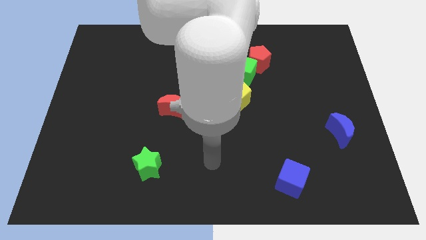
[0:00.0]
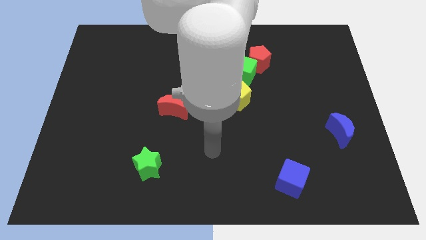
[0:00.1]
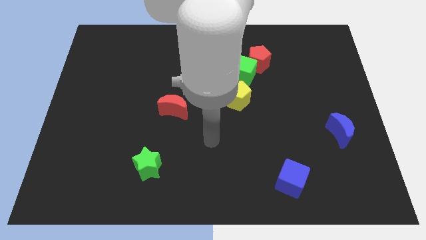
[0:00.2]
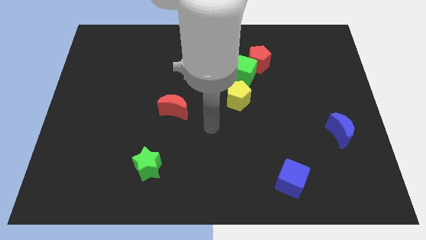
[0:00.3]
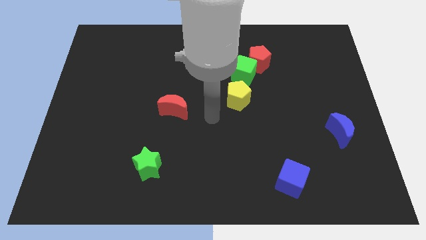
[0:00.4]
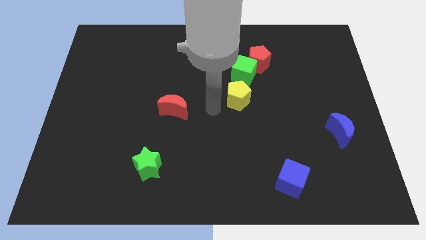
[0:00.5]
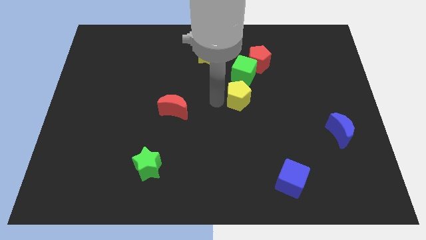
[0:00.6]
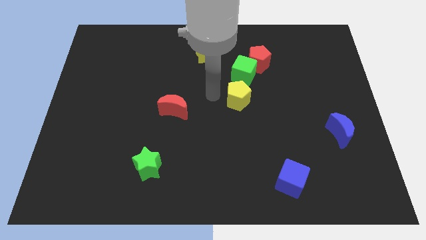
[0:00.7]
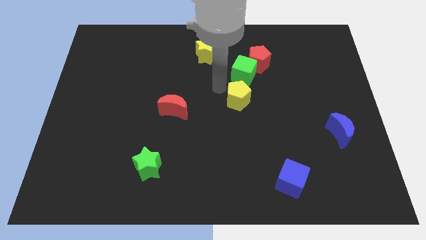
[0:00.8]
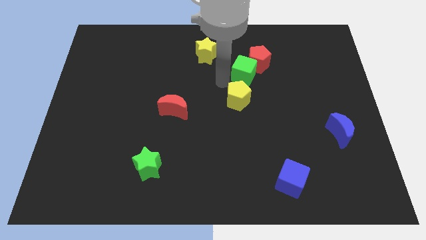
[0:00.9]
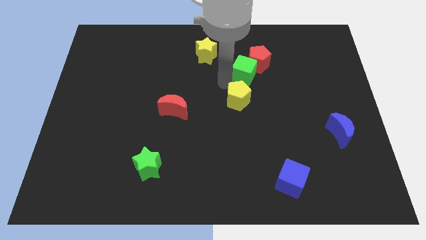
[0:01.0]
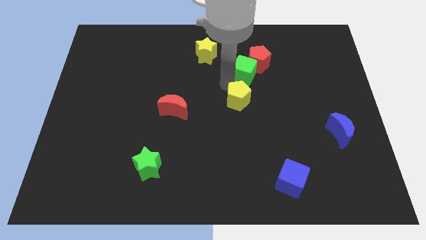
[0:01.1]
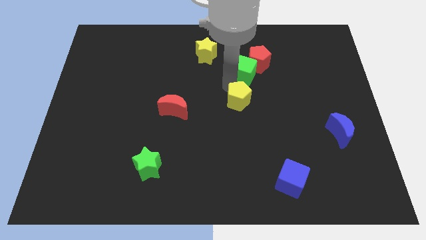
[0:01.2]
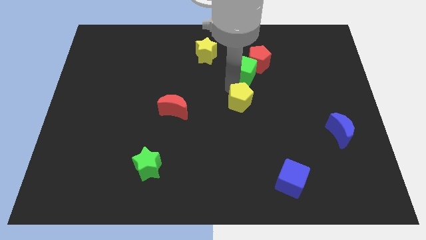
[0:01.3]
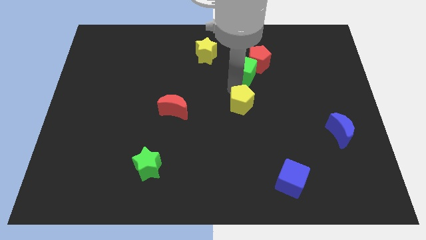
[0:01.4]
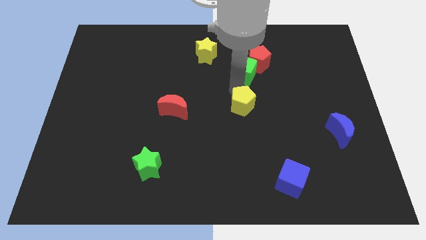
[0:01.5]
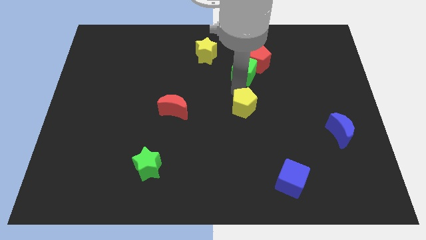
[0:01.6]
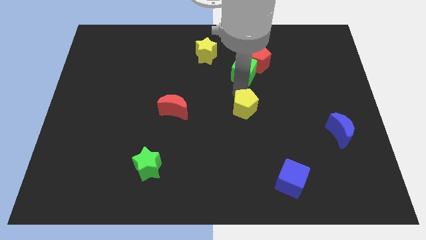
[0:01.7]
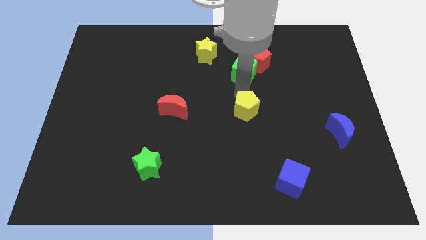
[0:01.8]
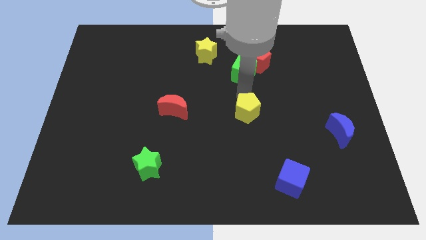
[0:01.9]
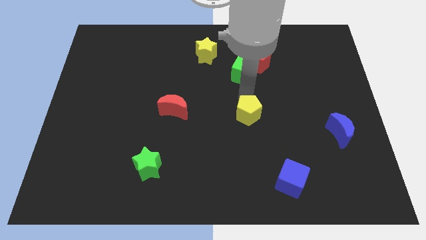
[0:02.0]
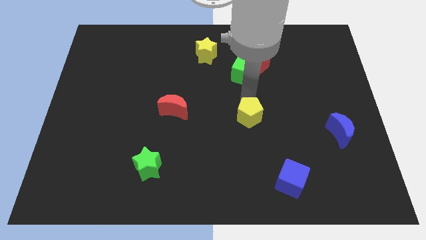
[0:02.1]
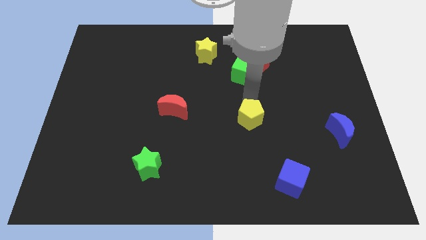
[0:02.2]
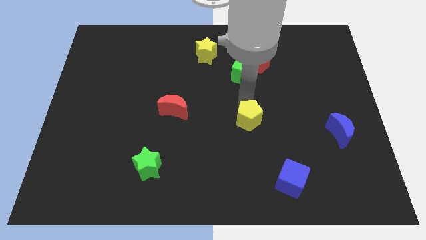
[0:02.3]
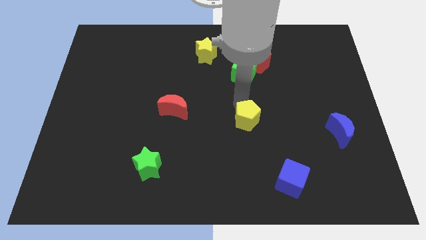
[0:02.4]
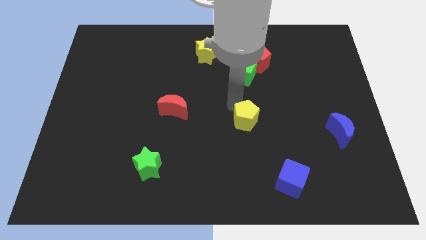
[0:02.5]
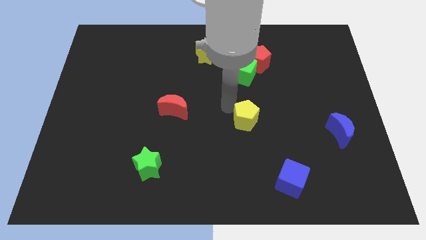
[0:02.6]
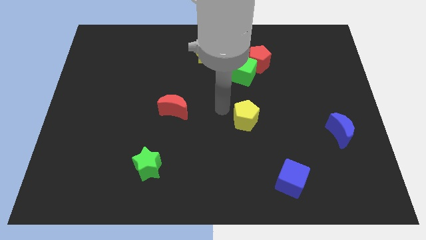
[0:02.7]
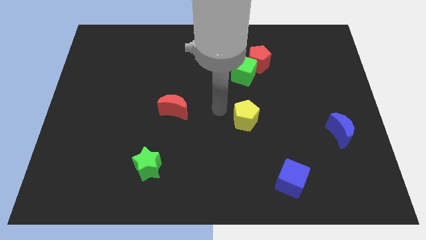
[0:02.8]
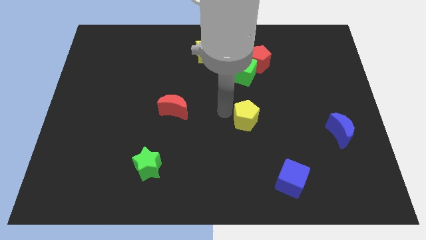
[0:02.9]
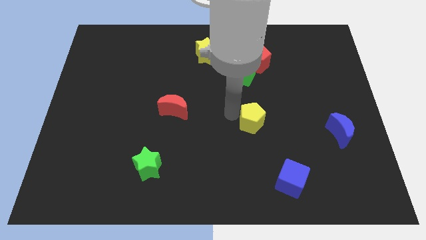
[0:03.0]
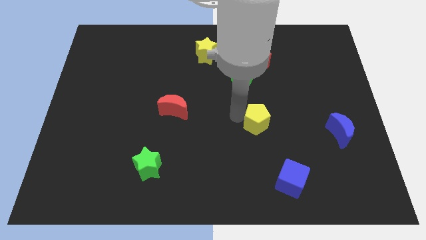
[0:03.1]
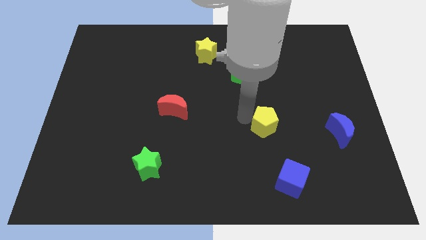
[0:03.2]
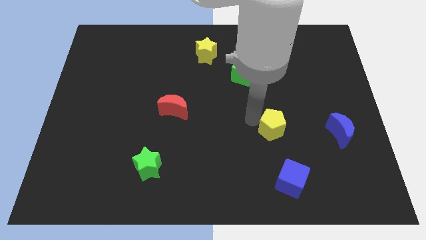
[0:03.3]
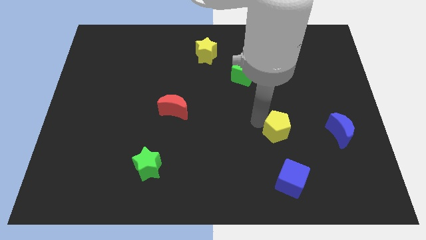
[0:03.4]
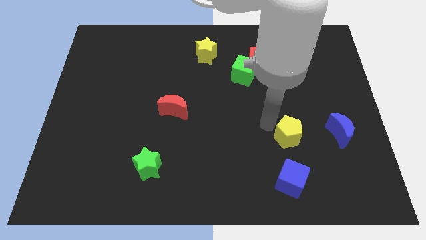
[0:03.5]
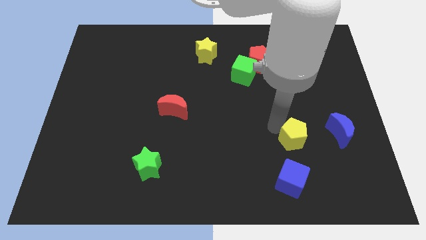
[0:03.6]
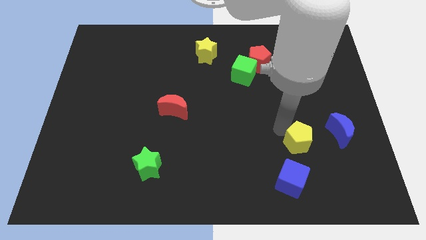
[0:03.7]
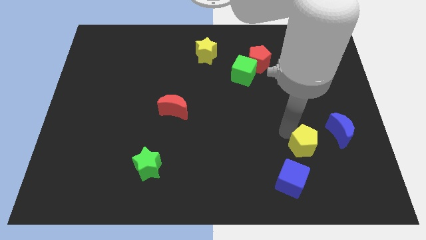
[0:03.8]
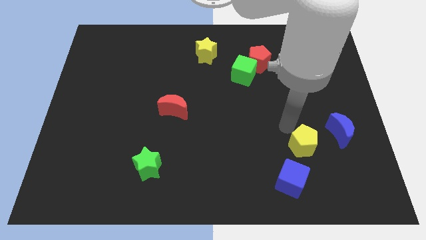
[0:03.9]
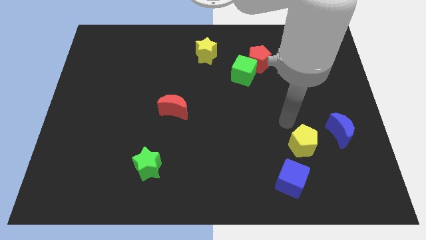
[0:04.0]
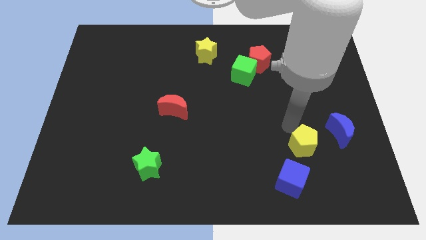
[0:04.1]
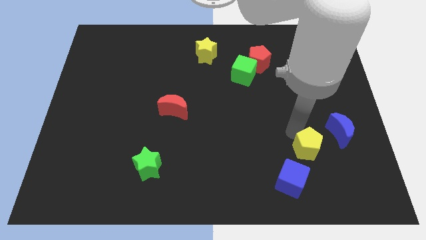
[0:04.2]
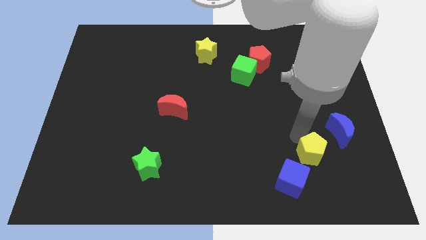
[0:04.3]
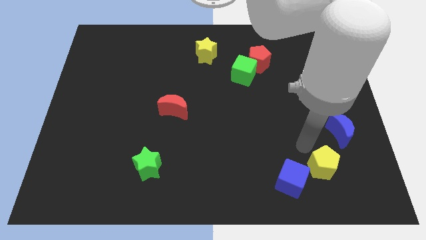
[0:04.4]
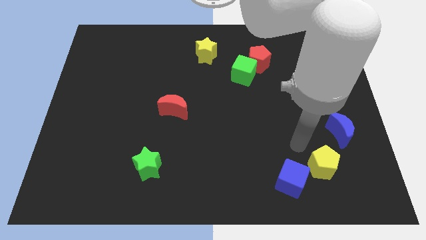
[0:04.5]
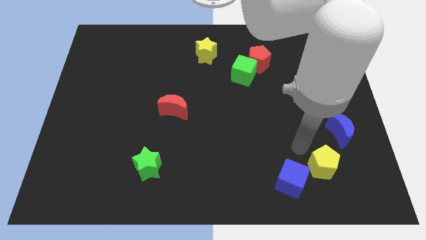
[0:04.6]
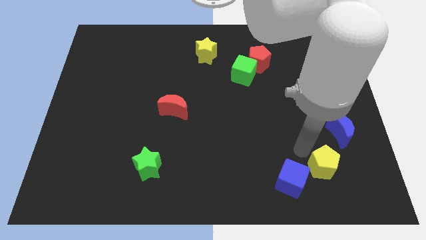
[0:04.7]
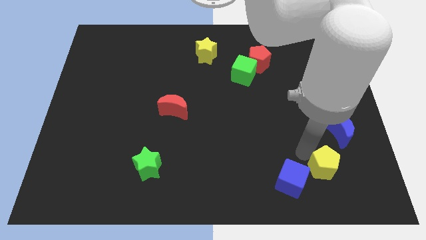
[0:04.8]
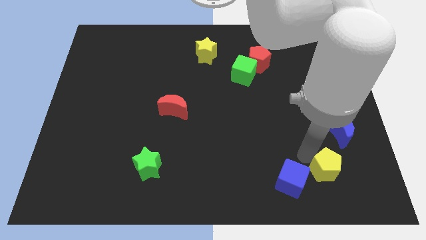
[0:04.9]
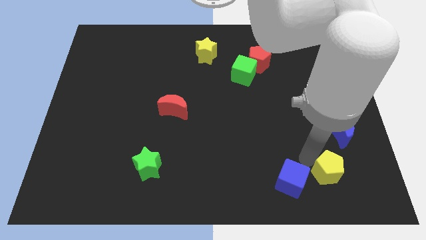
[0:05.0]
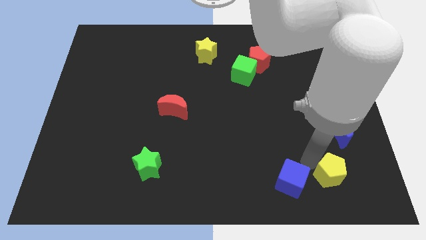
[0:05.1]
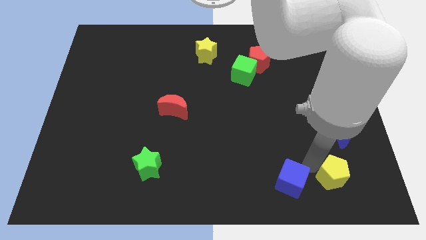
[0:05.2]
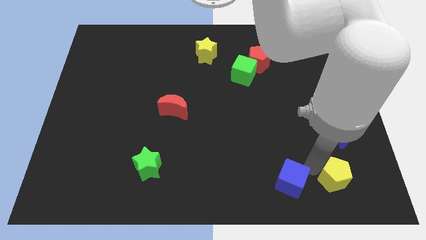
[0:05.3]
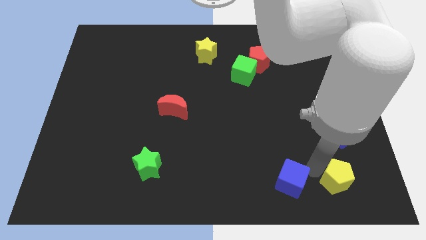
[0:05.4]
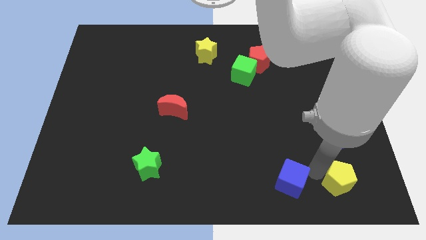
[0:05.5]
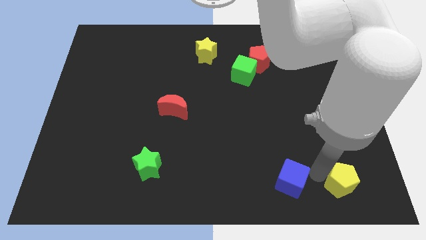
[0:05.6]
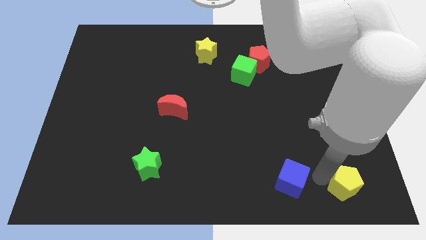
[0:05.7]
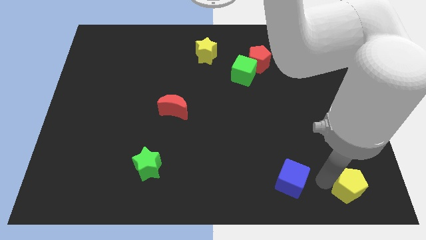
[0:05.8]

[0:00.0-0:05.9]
move the yellow pentagon to the bottom right corner

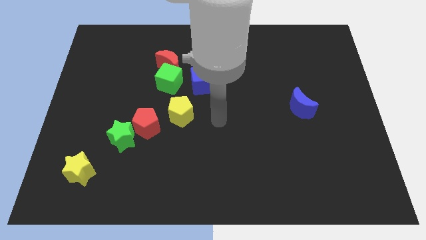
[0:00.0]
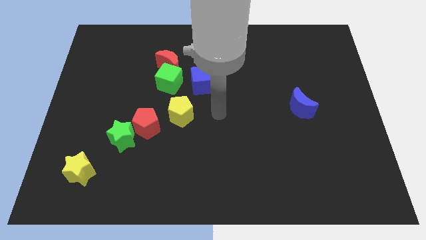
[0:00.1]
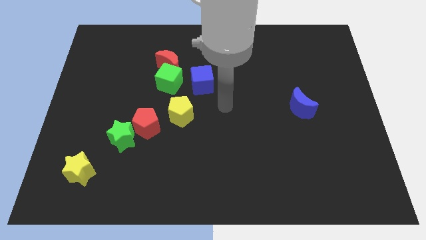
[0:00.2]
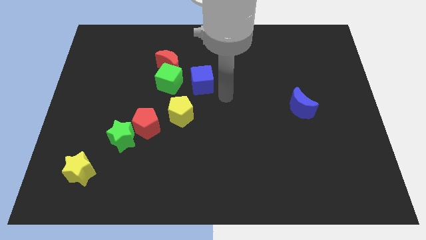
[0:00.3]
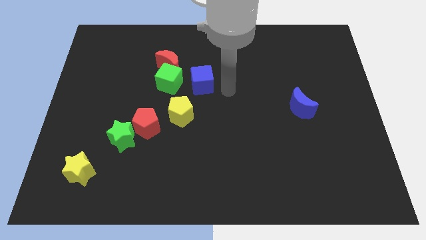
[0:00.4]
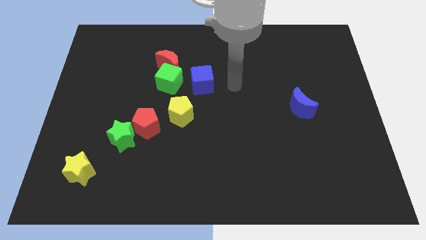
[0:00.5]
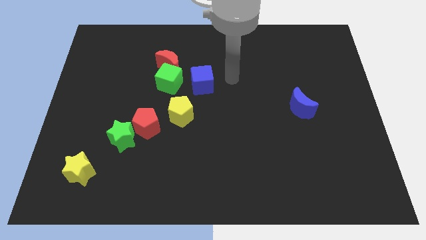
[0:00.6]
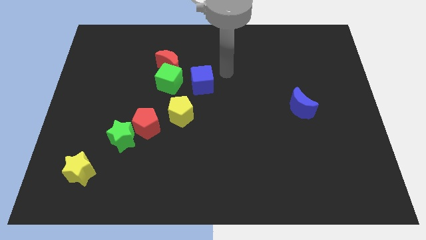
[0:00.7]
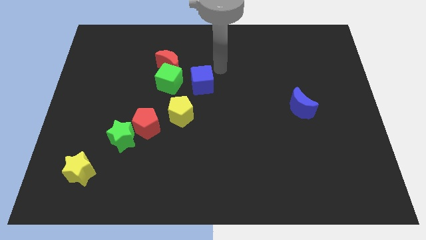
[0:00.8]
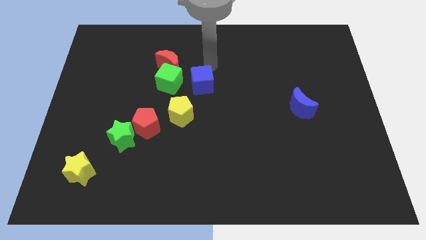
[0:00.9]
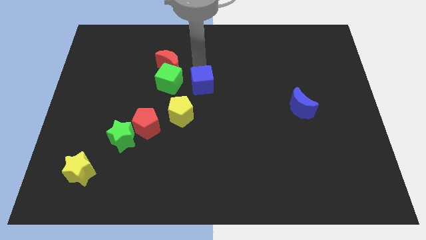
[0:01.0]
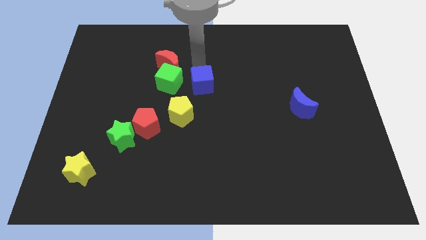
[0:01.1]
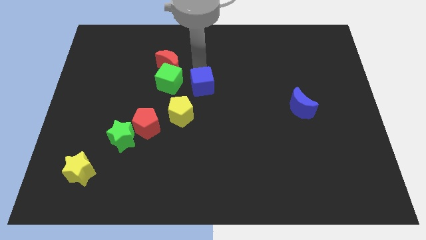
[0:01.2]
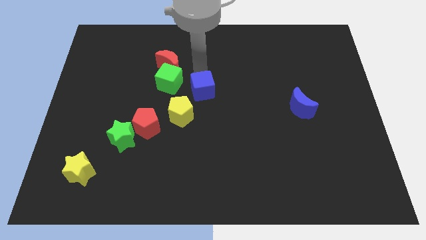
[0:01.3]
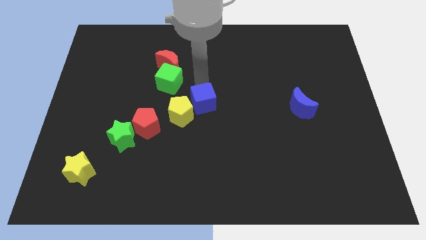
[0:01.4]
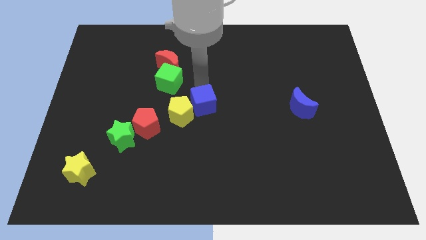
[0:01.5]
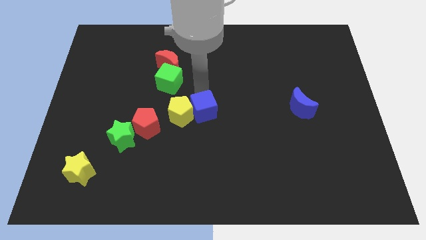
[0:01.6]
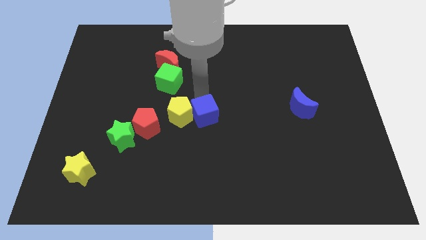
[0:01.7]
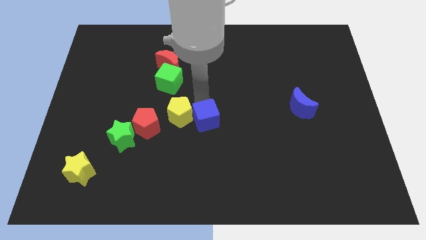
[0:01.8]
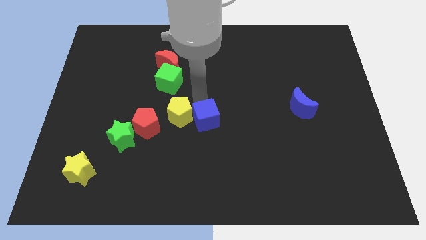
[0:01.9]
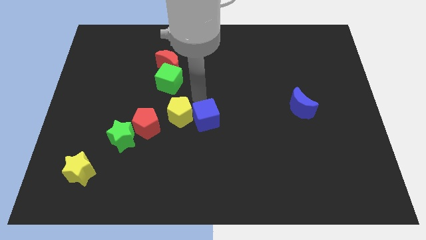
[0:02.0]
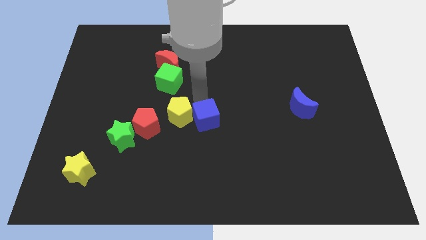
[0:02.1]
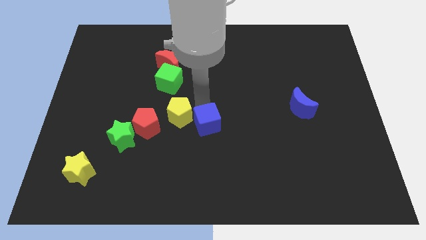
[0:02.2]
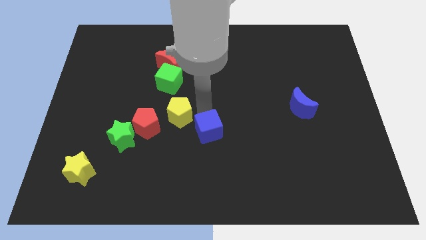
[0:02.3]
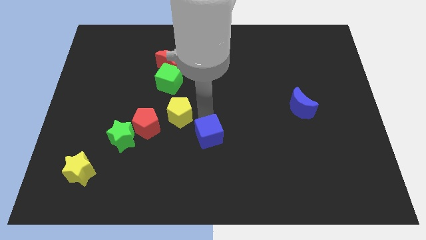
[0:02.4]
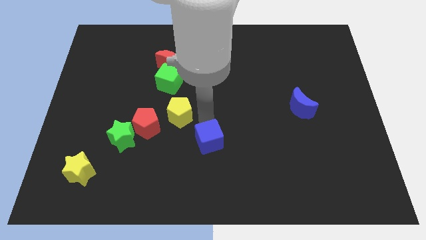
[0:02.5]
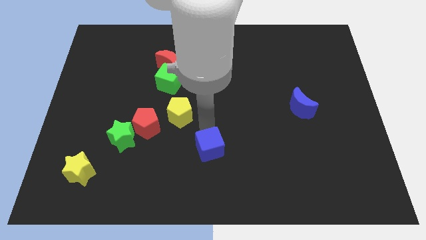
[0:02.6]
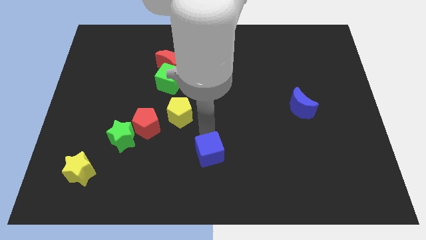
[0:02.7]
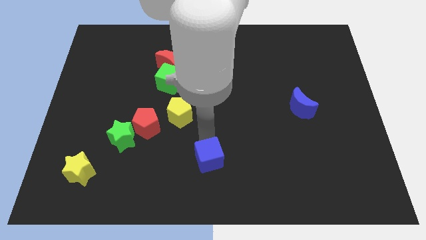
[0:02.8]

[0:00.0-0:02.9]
push the blue cube to the bottom side
